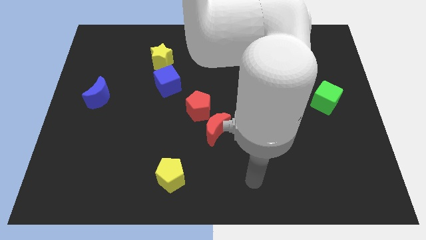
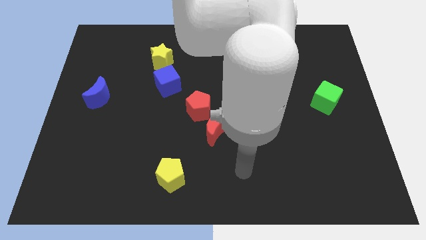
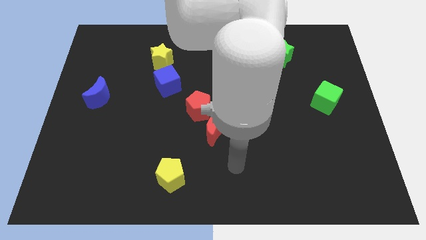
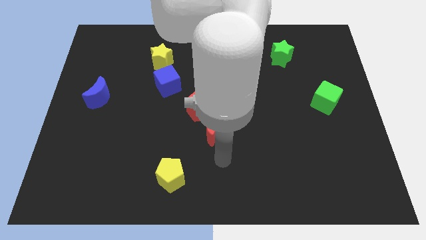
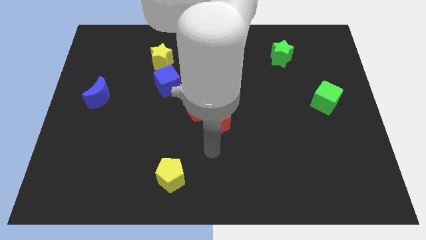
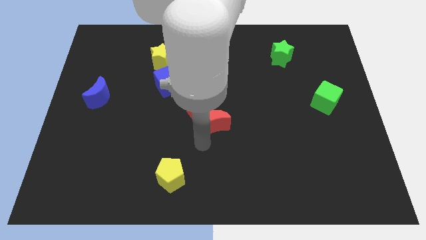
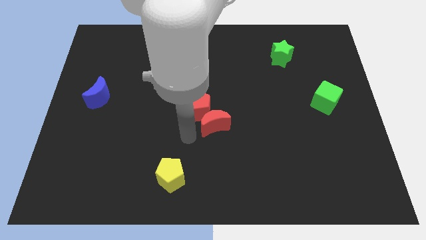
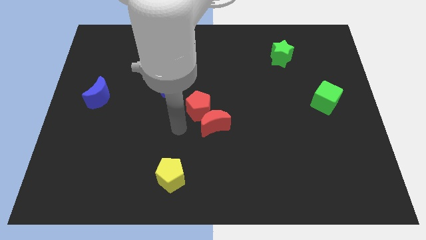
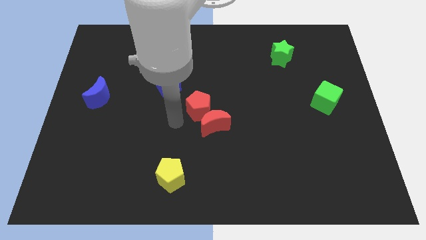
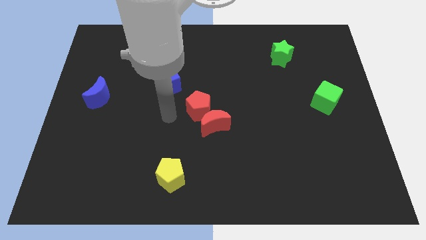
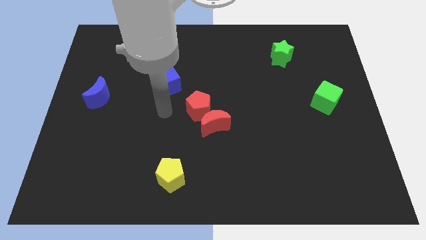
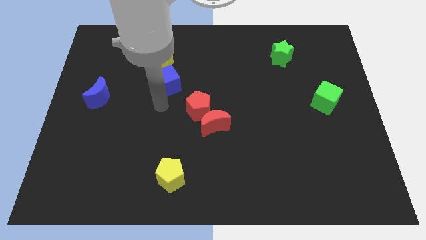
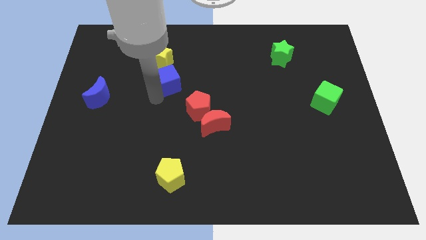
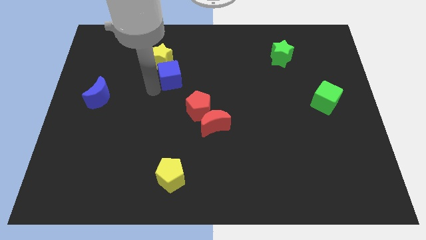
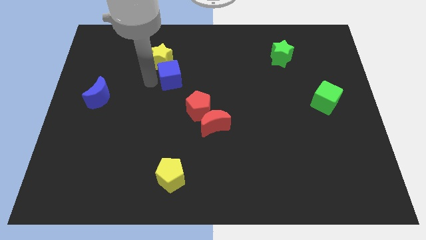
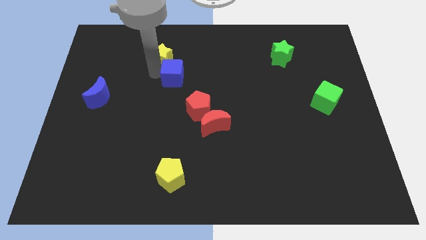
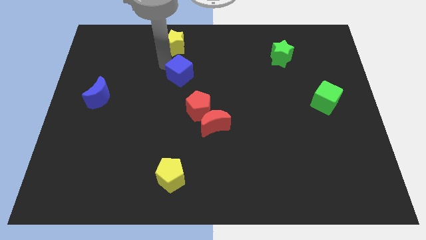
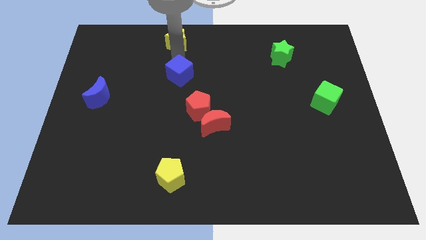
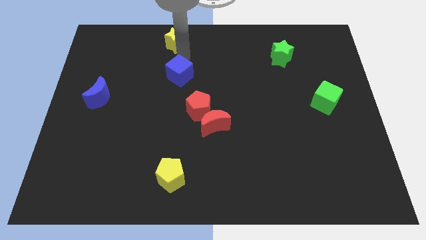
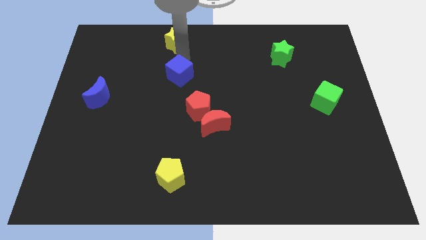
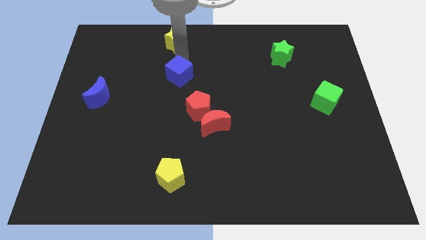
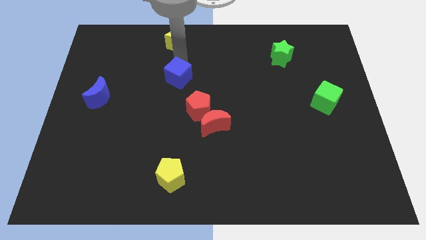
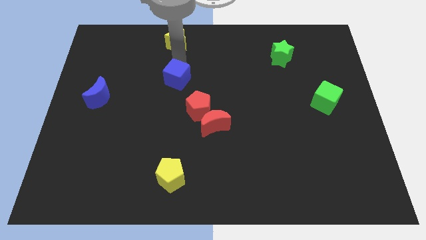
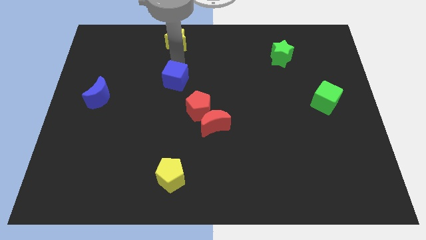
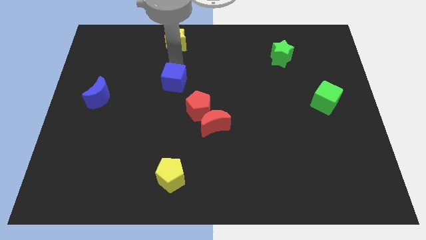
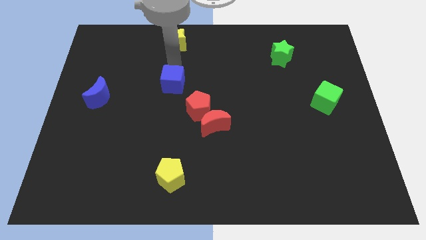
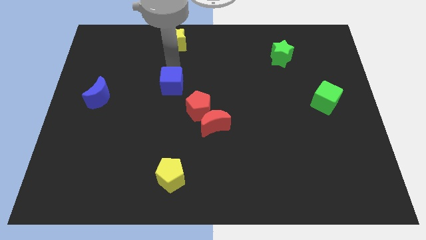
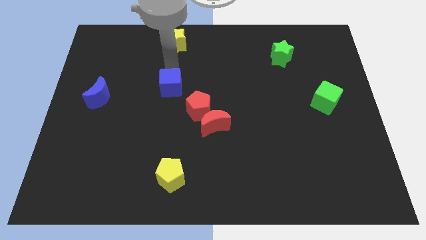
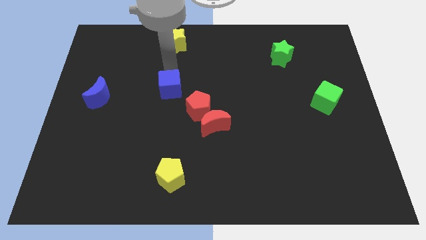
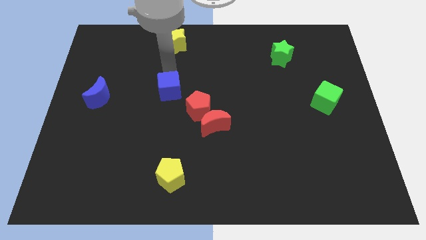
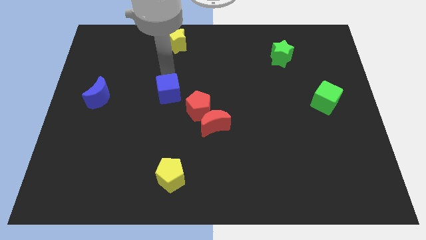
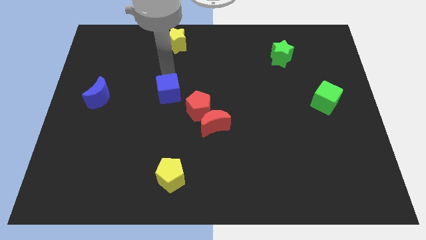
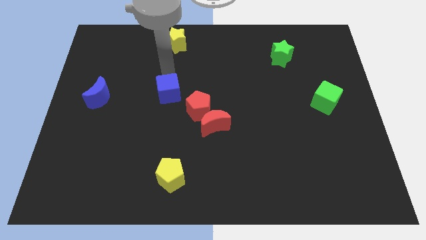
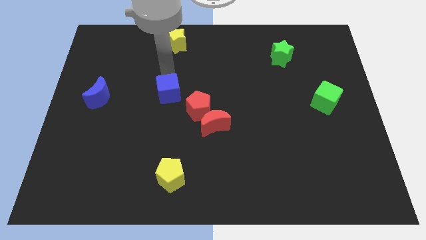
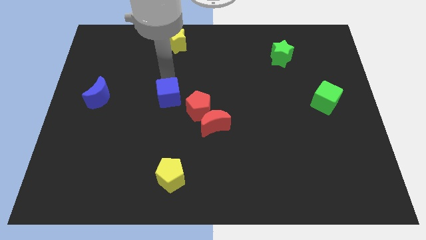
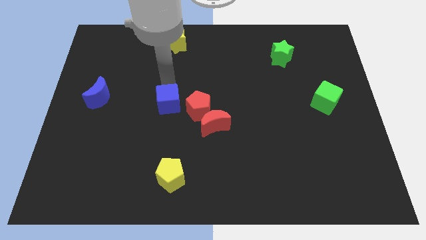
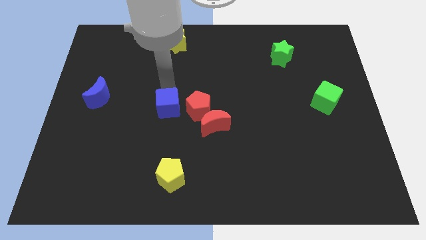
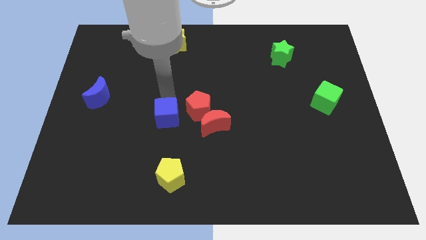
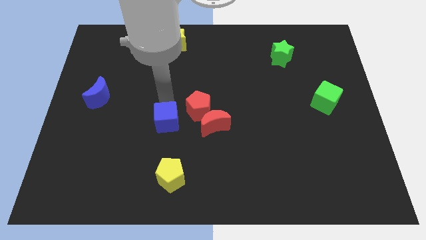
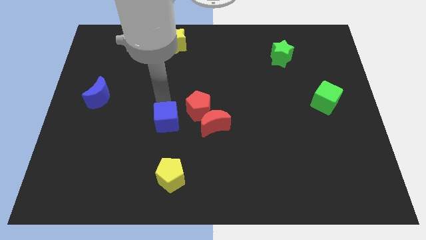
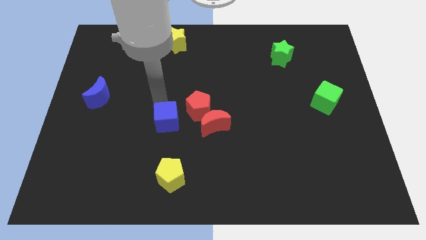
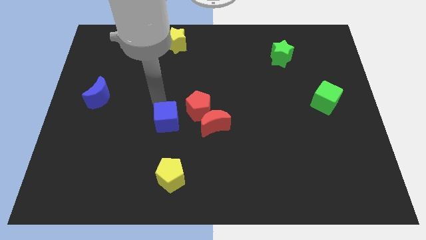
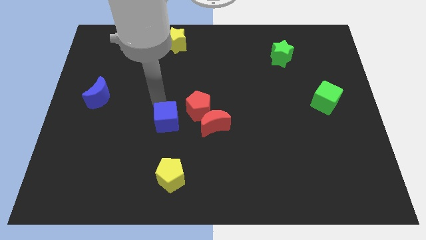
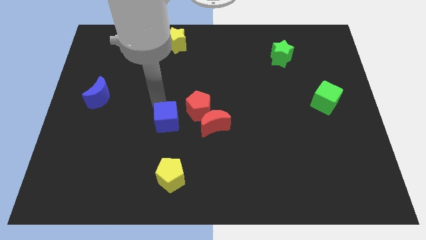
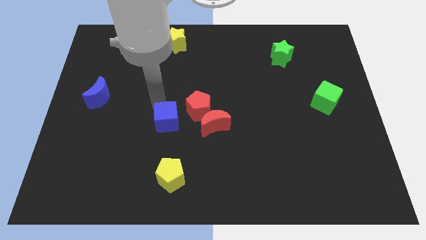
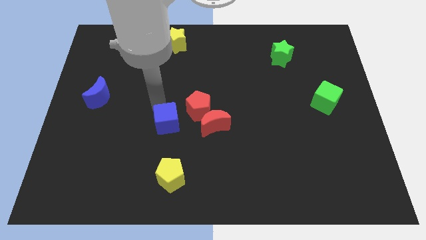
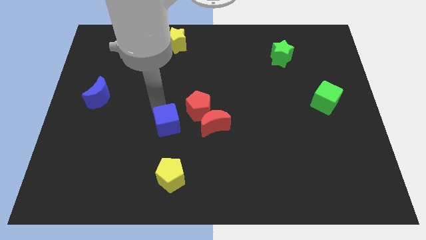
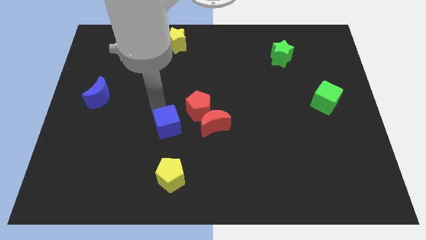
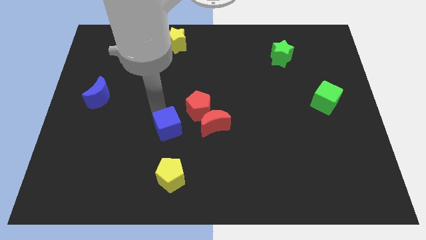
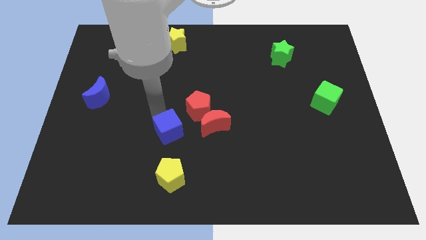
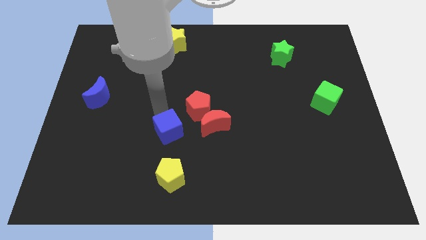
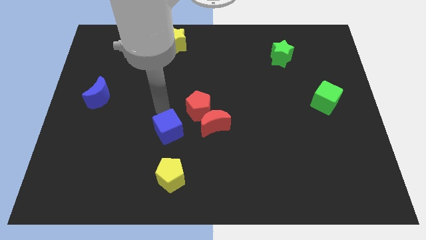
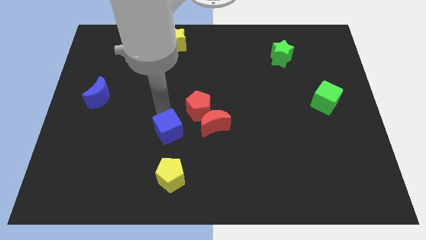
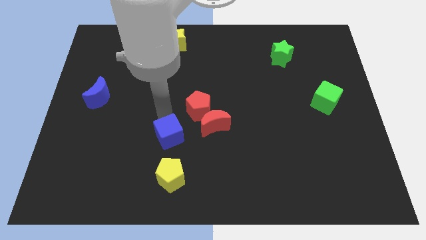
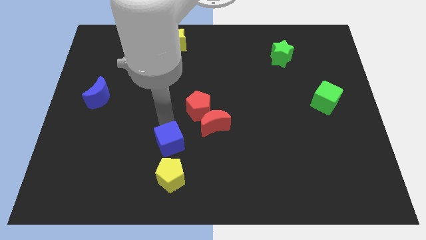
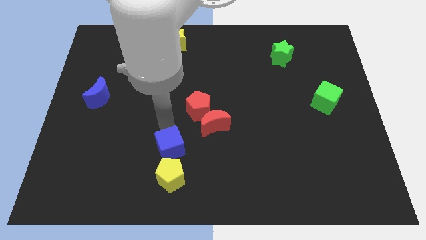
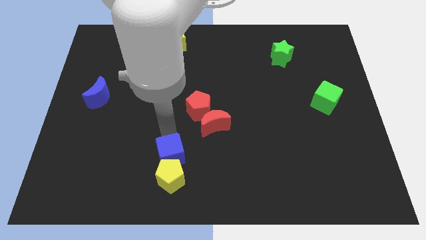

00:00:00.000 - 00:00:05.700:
move the blue cube to the yellow pentagon

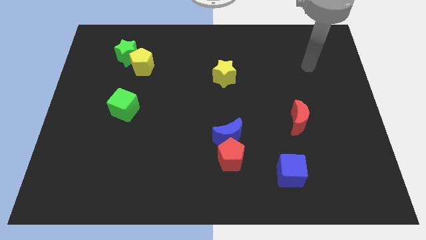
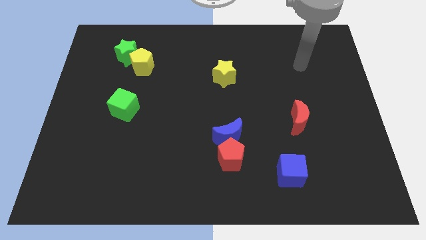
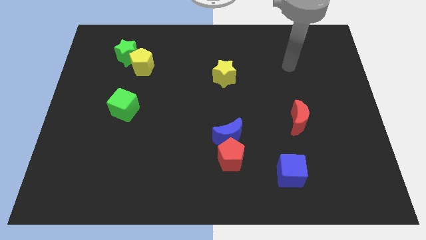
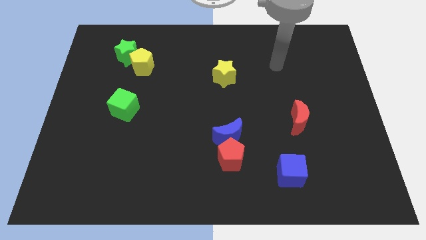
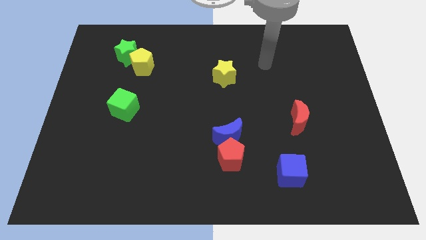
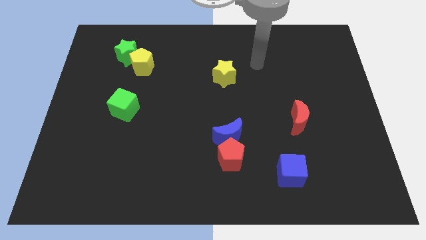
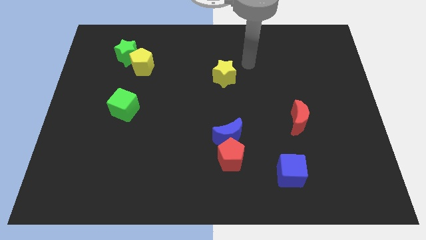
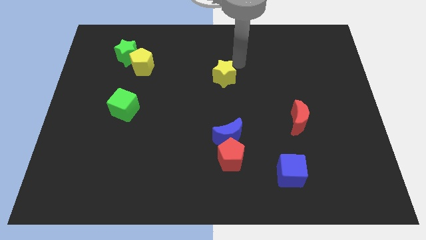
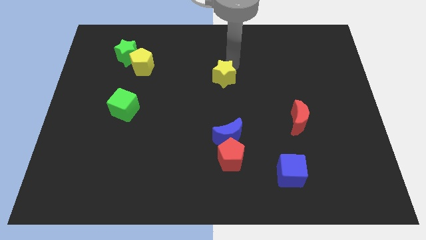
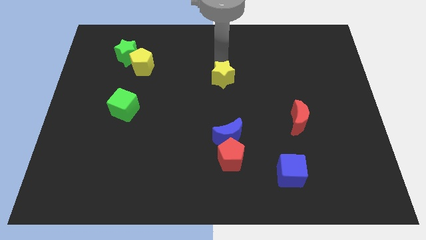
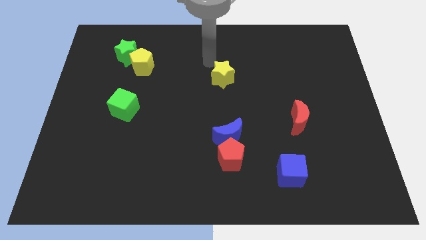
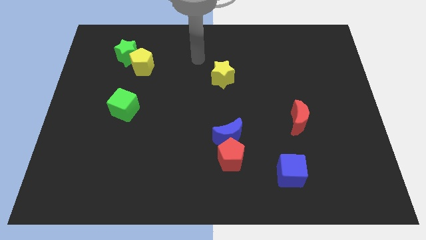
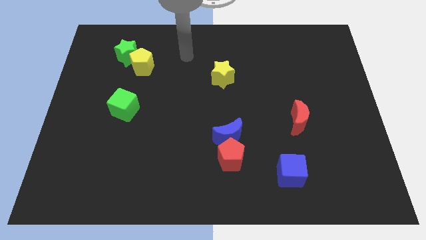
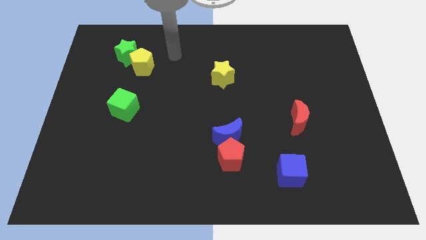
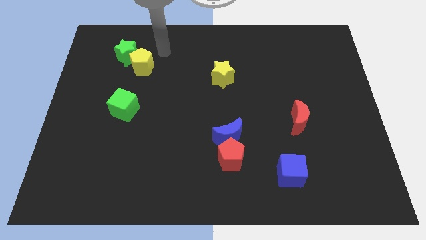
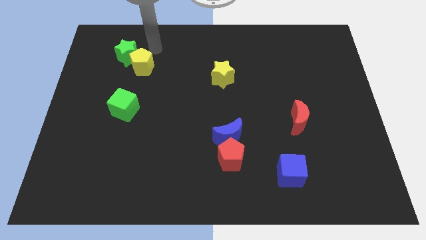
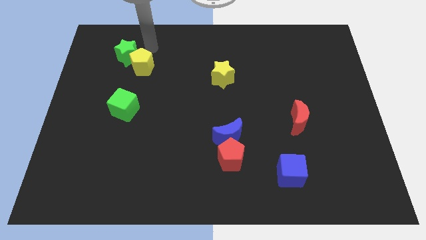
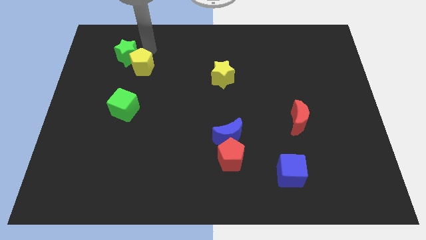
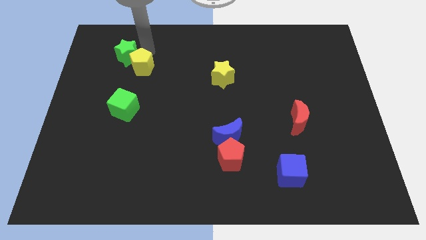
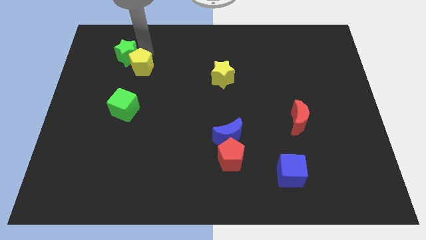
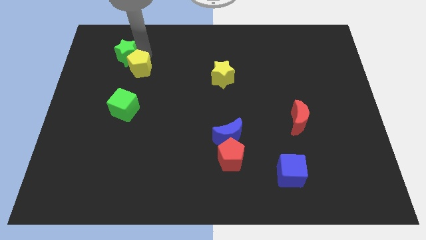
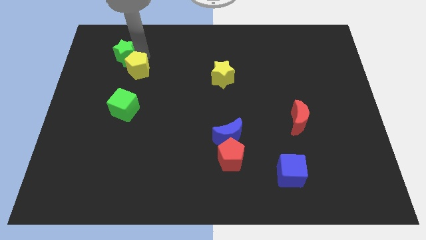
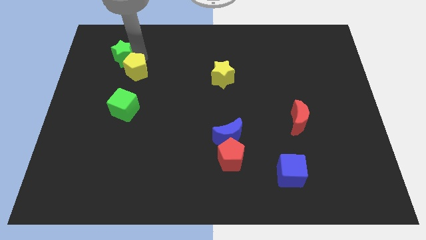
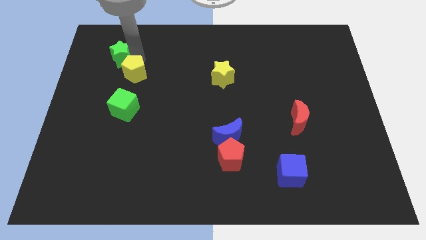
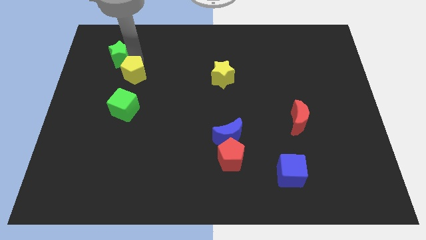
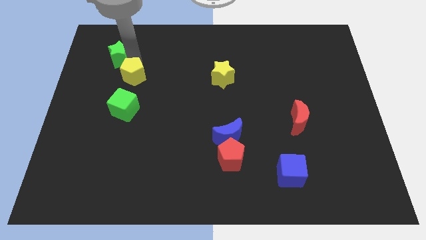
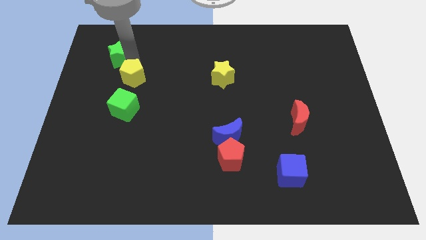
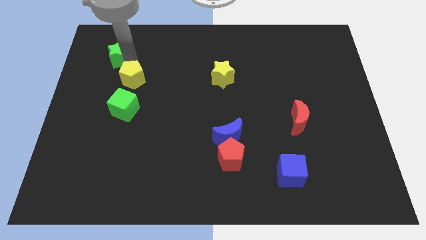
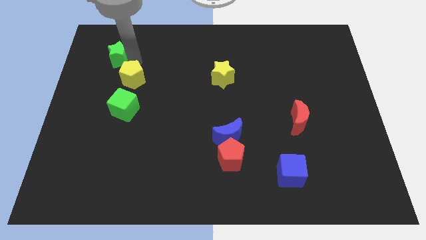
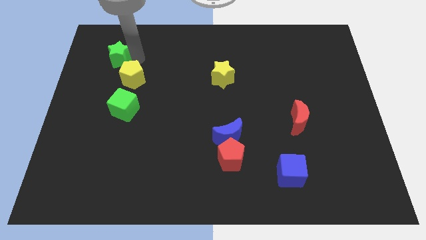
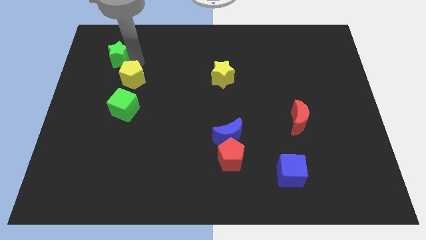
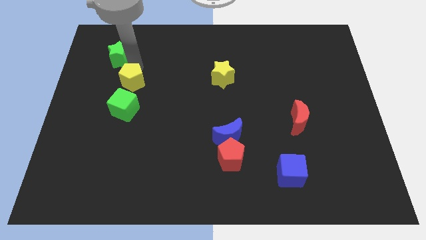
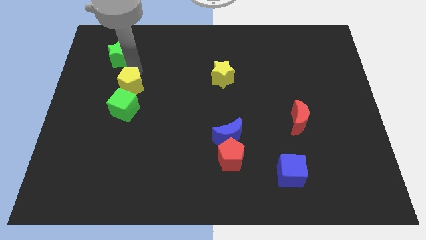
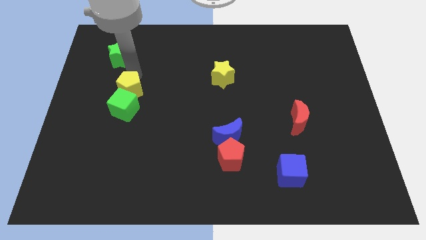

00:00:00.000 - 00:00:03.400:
move the yellow pentagon to the green cube
